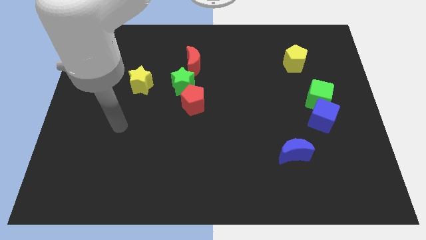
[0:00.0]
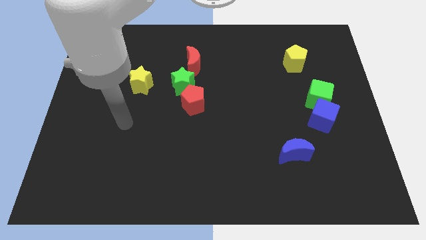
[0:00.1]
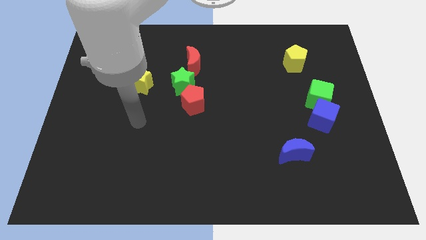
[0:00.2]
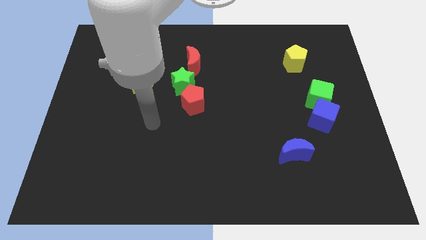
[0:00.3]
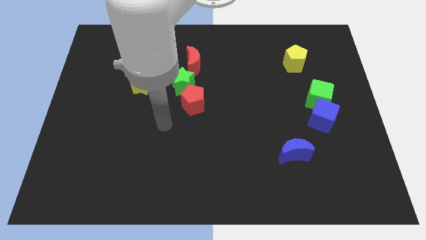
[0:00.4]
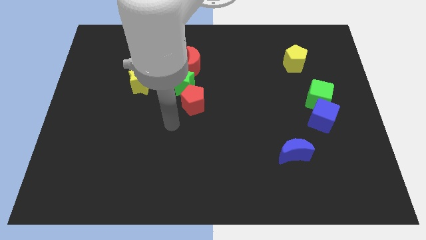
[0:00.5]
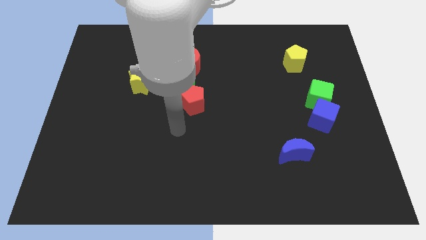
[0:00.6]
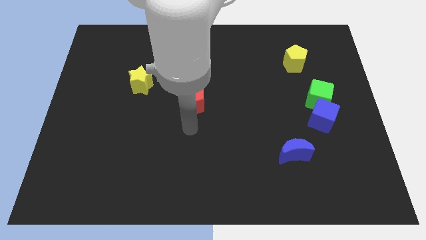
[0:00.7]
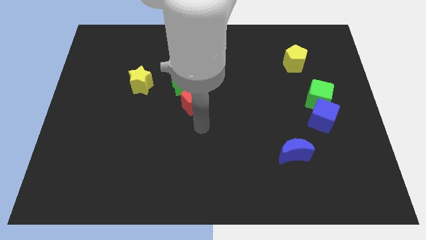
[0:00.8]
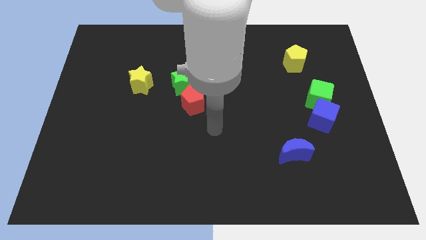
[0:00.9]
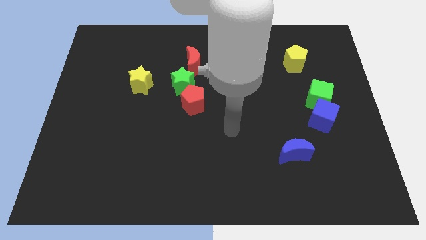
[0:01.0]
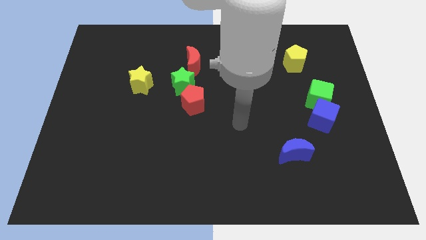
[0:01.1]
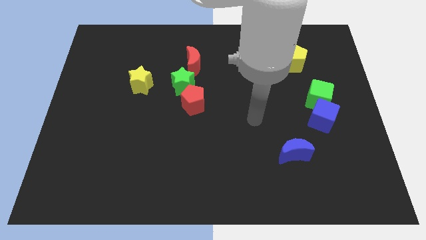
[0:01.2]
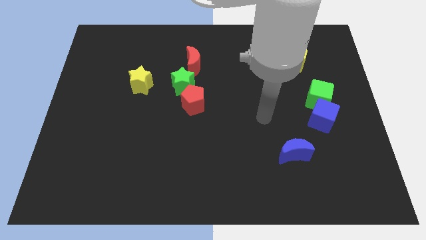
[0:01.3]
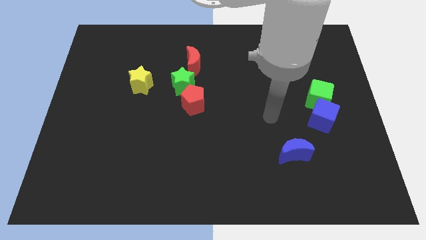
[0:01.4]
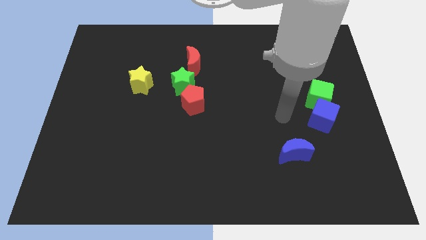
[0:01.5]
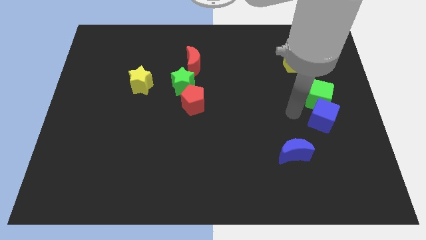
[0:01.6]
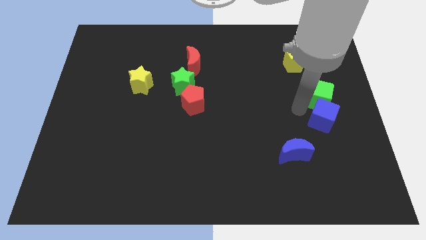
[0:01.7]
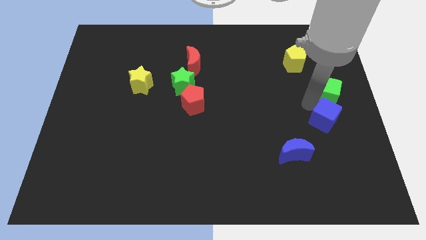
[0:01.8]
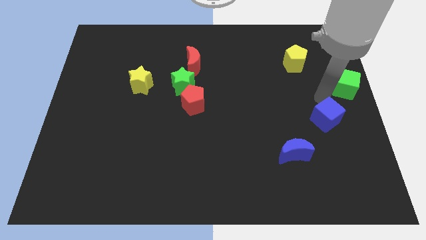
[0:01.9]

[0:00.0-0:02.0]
move the blue cube away from the green cube

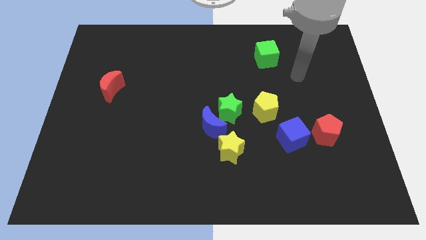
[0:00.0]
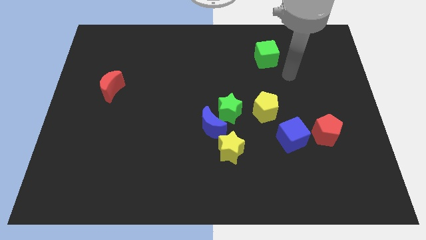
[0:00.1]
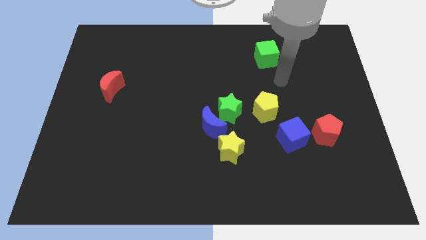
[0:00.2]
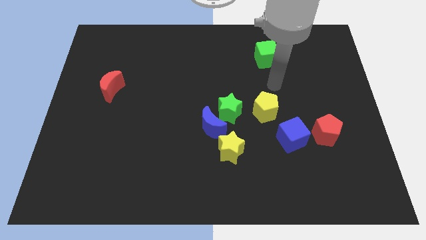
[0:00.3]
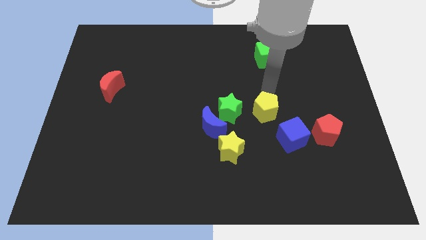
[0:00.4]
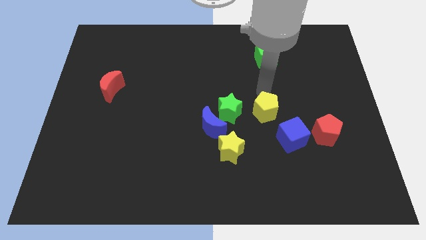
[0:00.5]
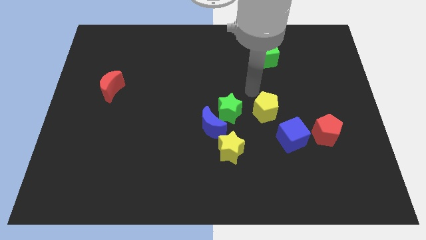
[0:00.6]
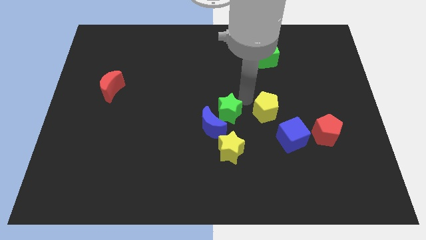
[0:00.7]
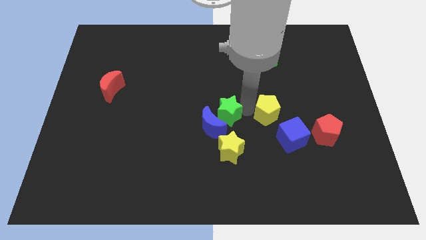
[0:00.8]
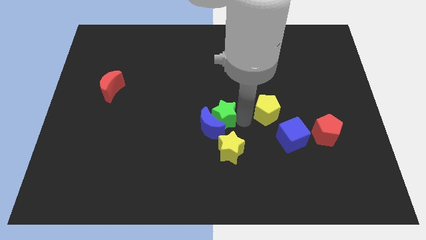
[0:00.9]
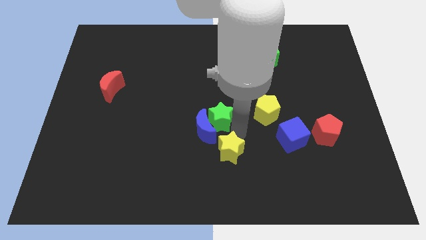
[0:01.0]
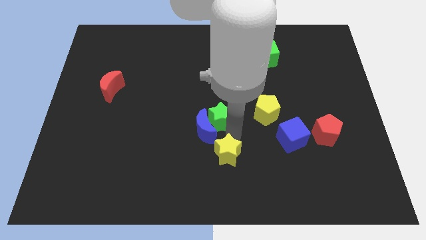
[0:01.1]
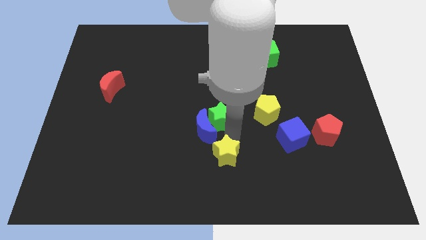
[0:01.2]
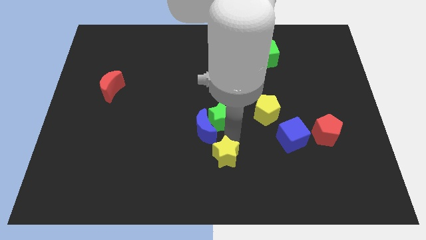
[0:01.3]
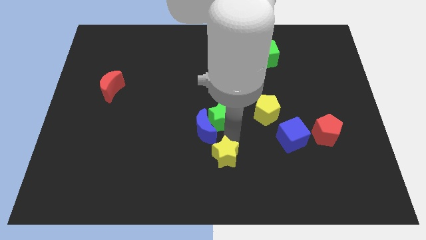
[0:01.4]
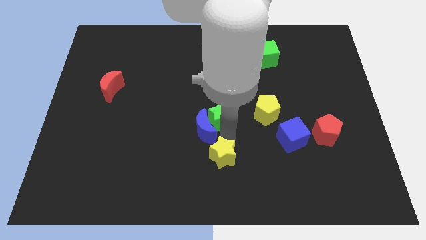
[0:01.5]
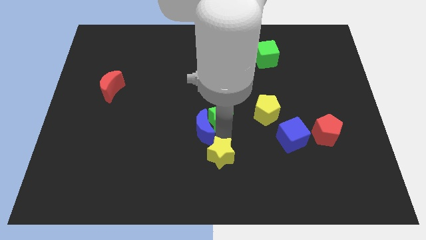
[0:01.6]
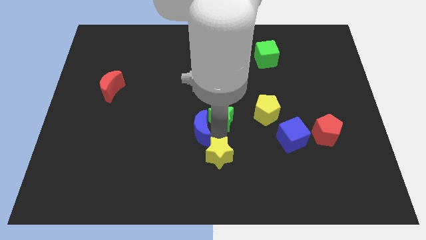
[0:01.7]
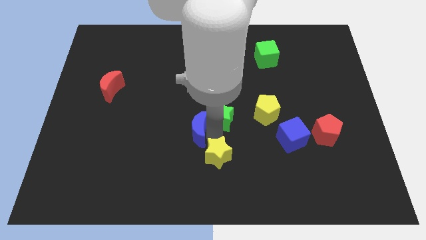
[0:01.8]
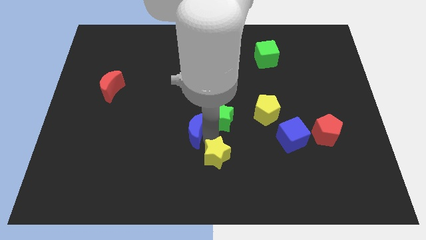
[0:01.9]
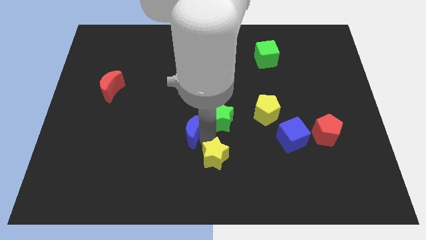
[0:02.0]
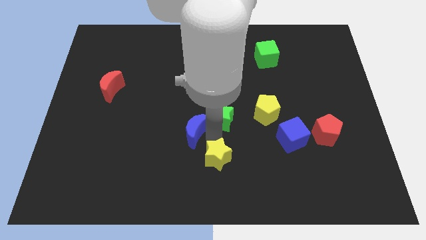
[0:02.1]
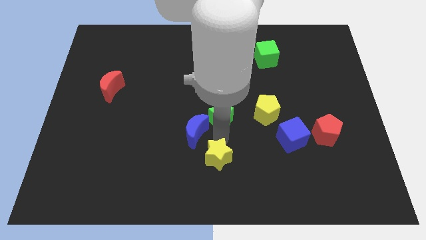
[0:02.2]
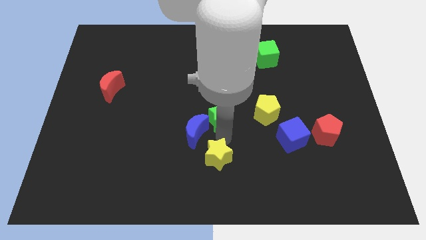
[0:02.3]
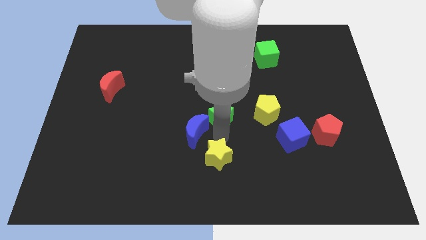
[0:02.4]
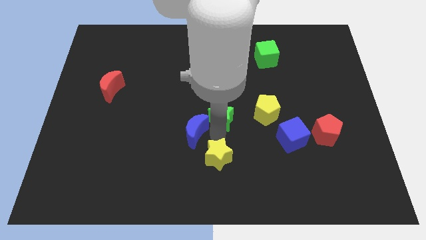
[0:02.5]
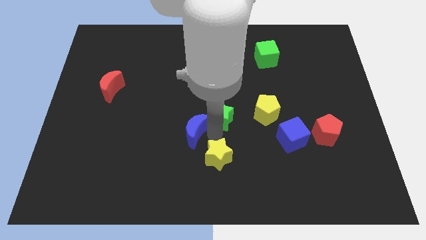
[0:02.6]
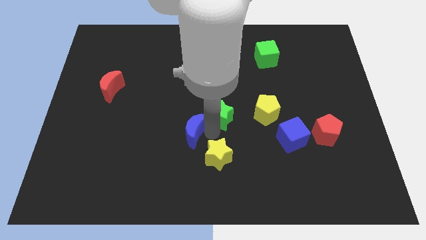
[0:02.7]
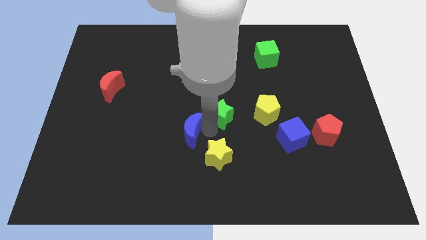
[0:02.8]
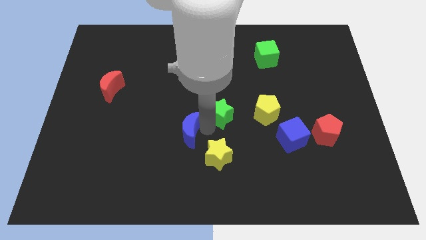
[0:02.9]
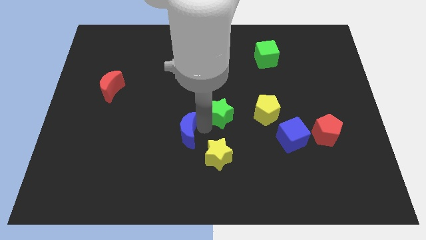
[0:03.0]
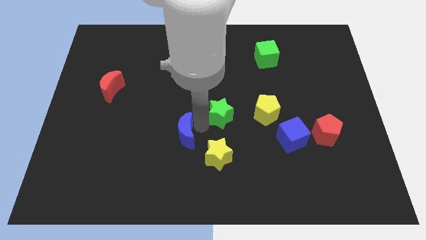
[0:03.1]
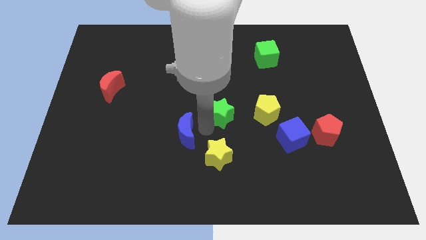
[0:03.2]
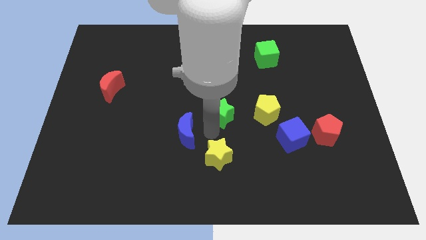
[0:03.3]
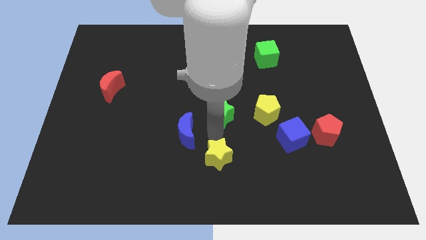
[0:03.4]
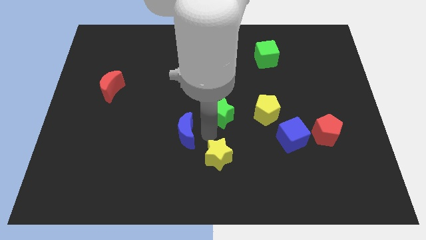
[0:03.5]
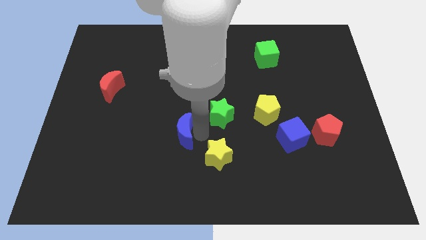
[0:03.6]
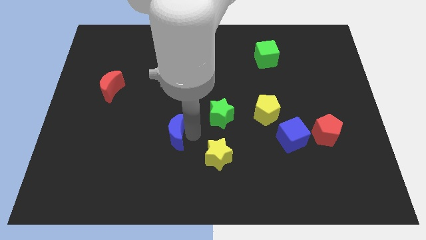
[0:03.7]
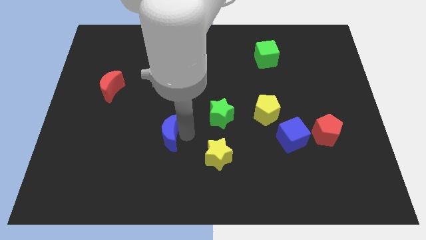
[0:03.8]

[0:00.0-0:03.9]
pull the blue moon apart from the green star and yellow star

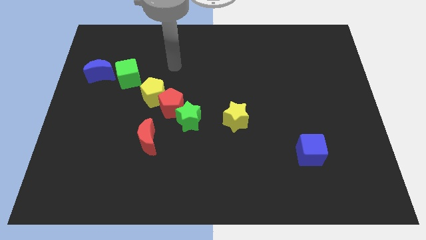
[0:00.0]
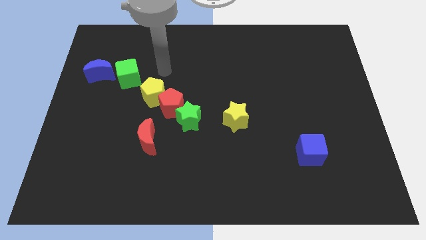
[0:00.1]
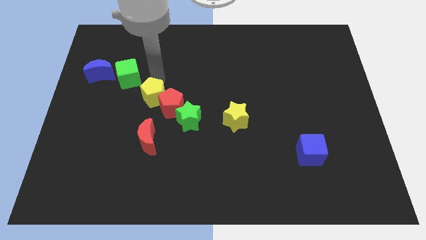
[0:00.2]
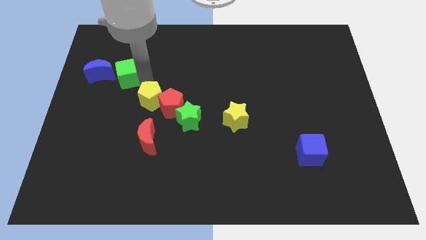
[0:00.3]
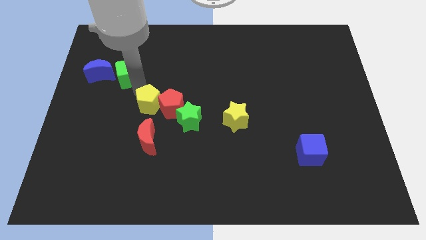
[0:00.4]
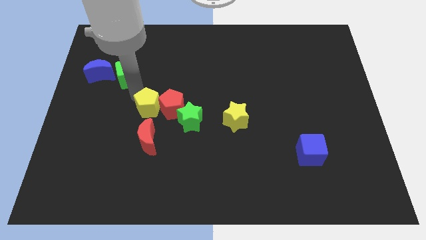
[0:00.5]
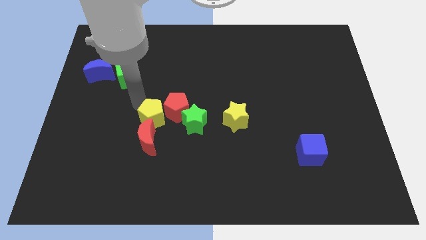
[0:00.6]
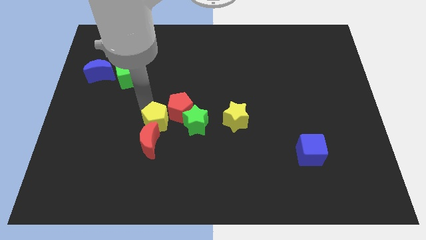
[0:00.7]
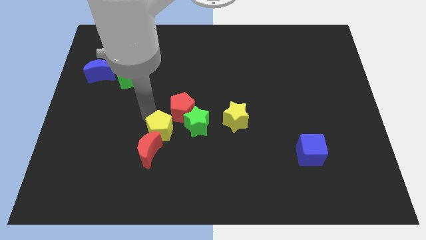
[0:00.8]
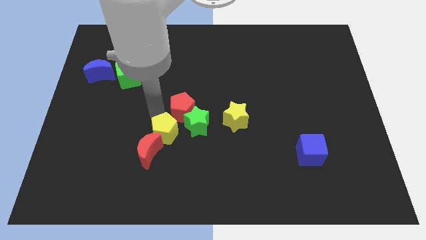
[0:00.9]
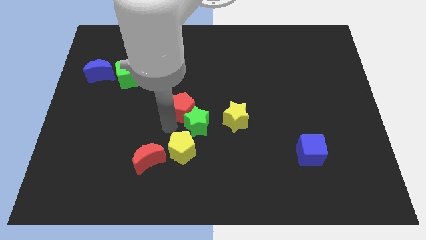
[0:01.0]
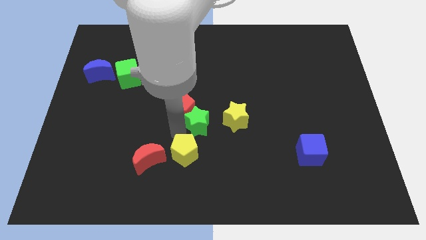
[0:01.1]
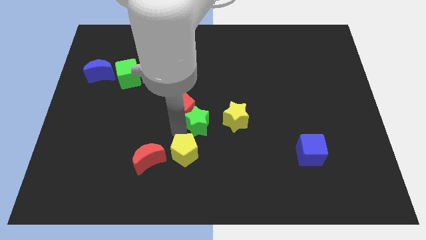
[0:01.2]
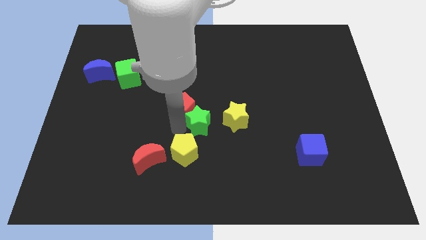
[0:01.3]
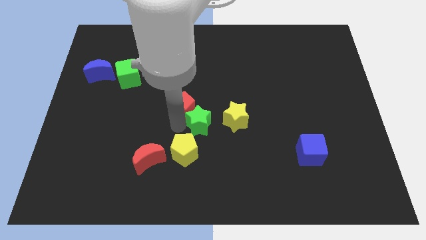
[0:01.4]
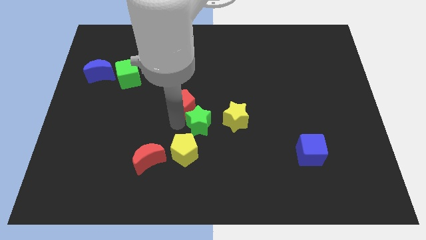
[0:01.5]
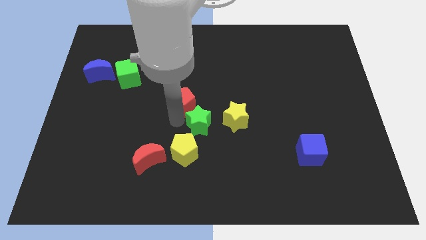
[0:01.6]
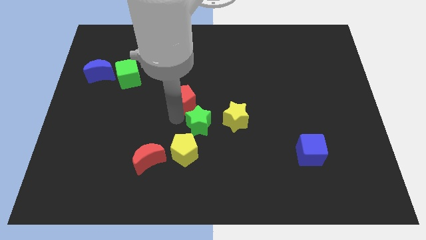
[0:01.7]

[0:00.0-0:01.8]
pull the red pentagon apart from the yellow pentagon and green star

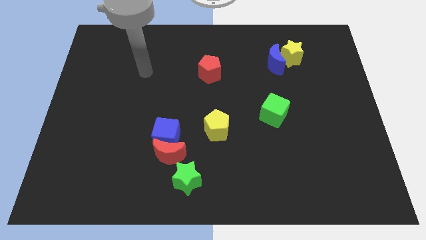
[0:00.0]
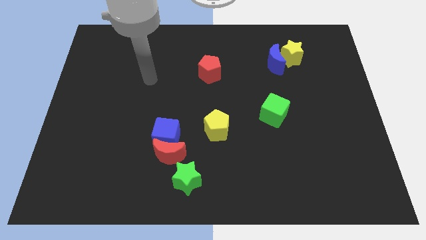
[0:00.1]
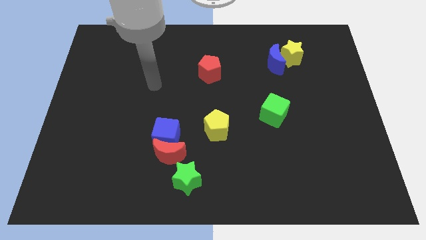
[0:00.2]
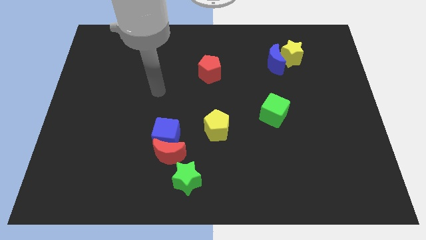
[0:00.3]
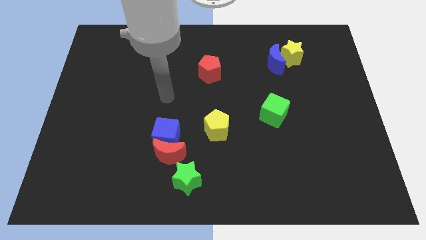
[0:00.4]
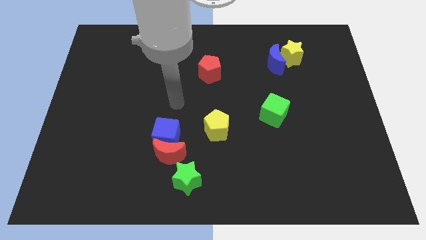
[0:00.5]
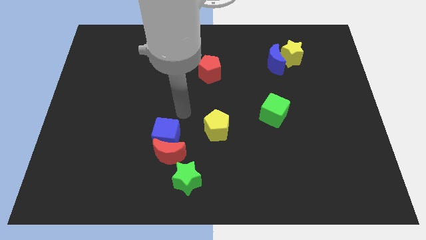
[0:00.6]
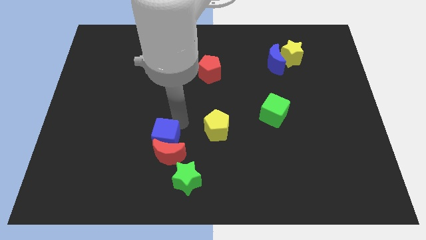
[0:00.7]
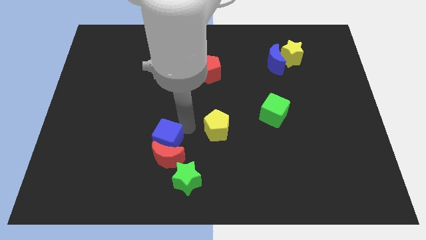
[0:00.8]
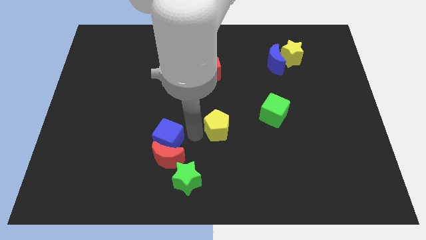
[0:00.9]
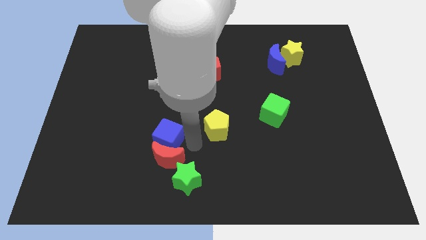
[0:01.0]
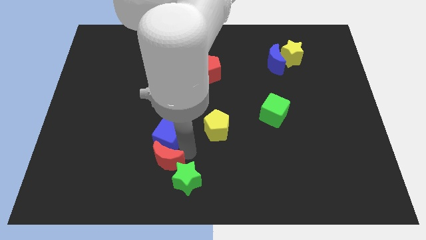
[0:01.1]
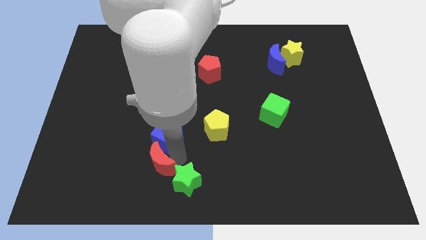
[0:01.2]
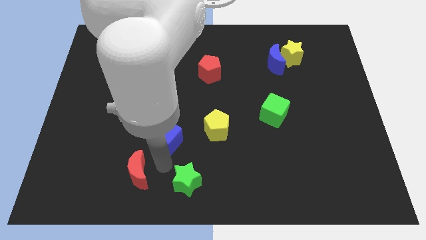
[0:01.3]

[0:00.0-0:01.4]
move the blue cube away from the red moon

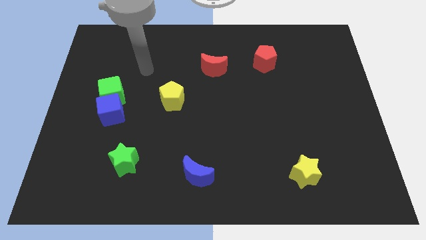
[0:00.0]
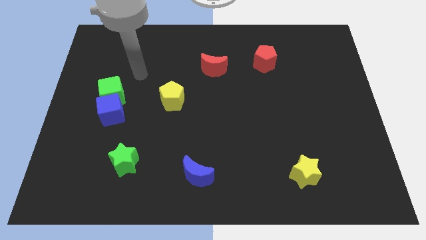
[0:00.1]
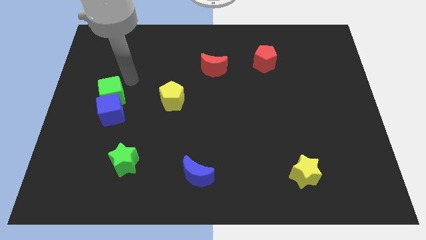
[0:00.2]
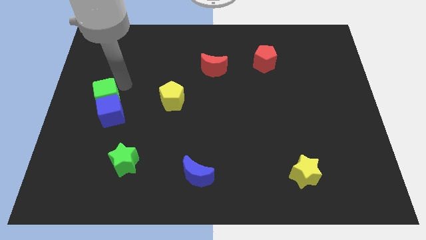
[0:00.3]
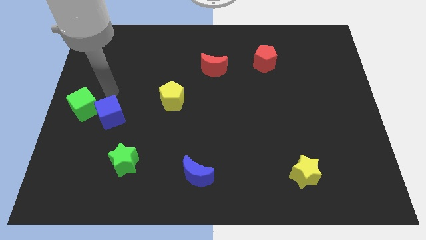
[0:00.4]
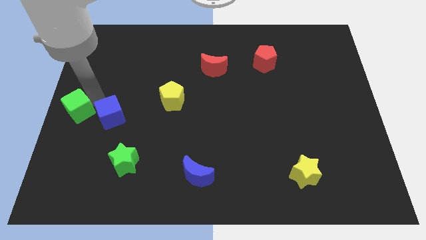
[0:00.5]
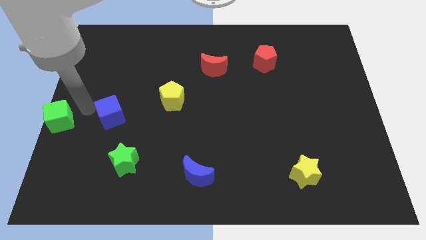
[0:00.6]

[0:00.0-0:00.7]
pull the blue cube apart from the green cube
